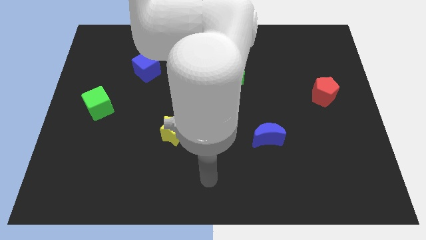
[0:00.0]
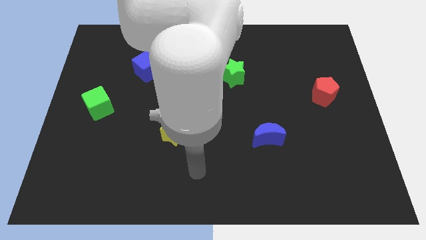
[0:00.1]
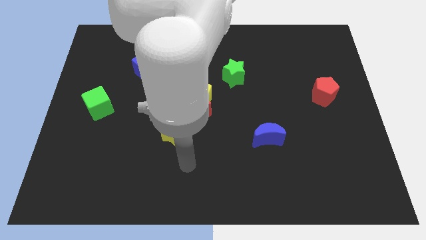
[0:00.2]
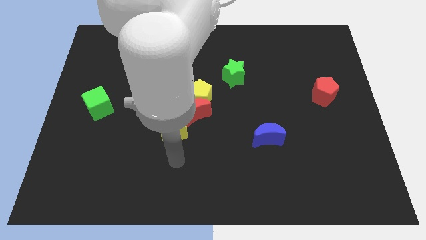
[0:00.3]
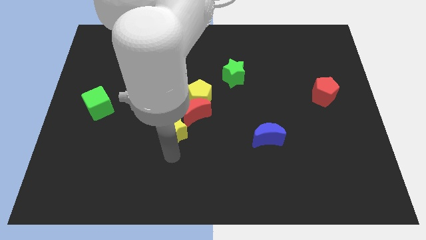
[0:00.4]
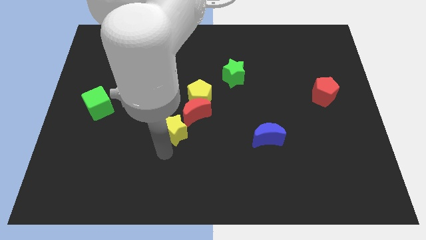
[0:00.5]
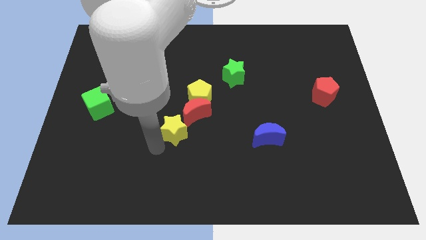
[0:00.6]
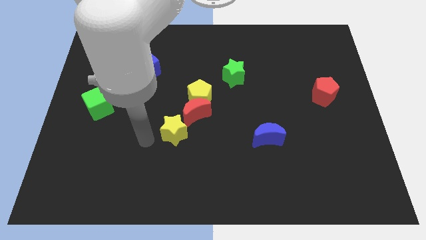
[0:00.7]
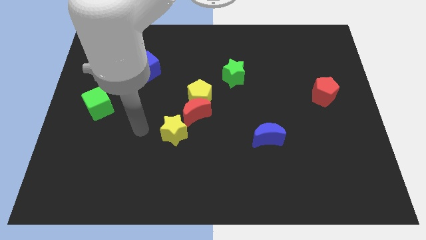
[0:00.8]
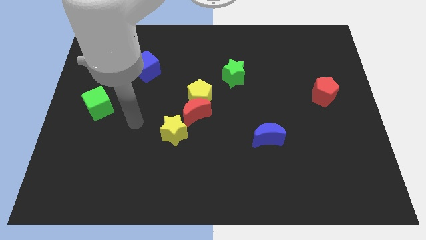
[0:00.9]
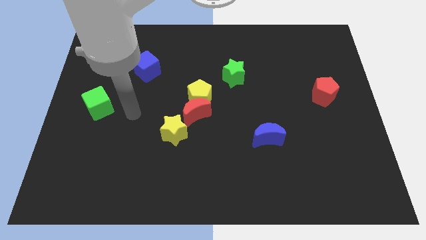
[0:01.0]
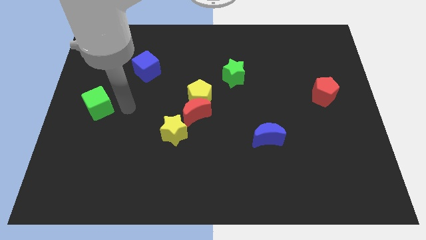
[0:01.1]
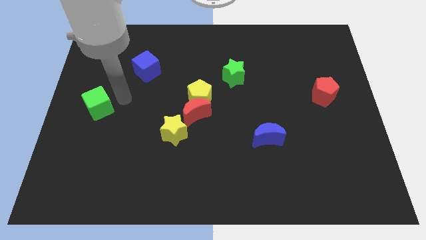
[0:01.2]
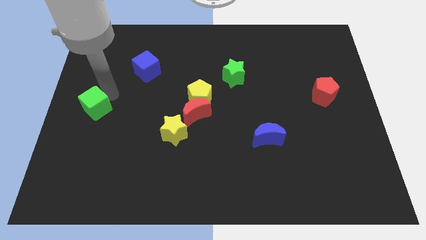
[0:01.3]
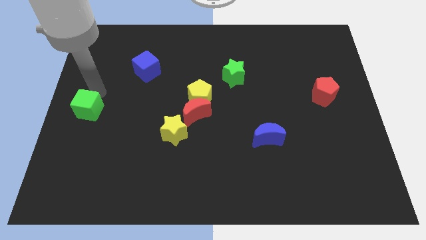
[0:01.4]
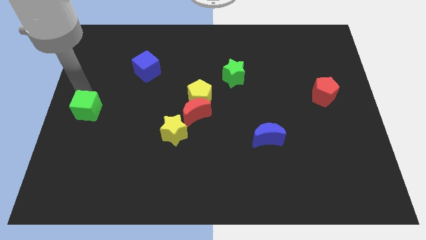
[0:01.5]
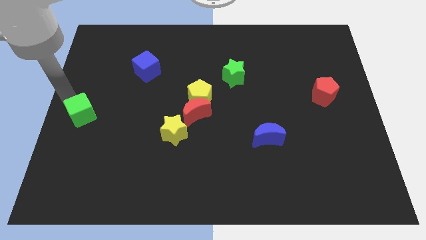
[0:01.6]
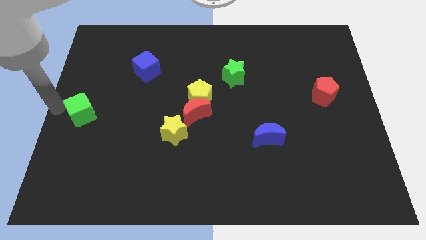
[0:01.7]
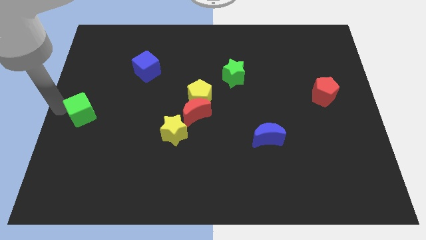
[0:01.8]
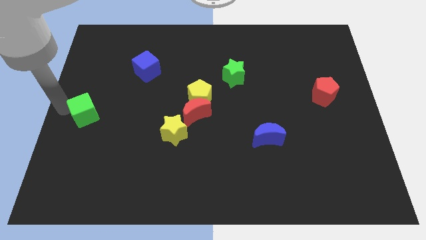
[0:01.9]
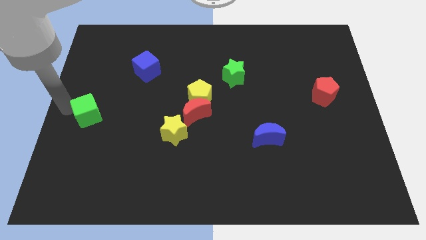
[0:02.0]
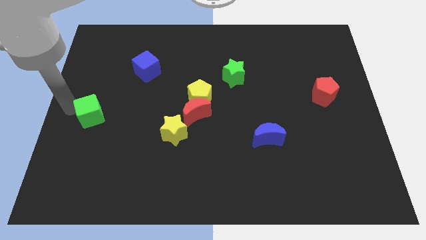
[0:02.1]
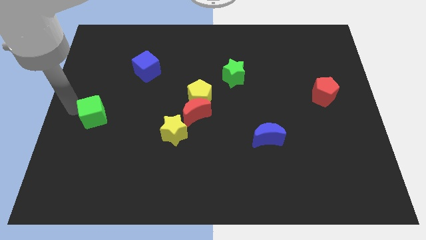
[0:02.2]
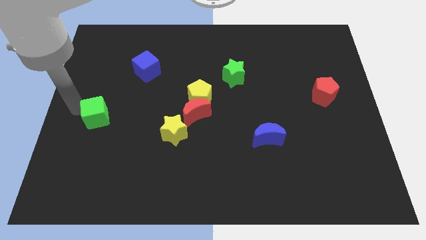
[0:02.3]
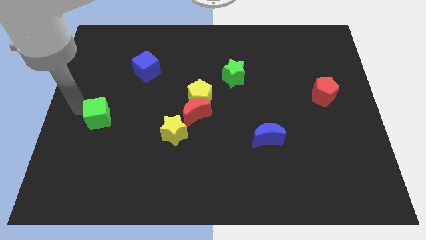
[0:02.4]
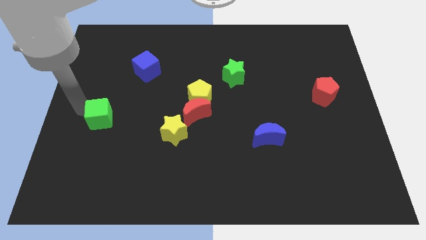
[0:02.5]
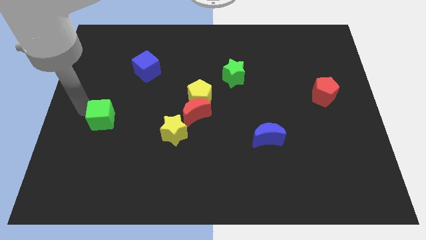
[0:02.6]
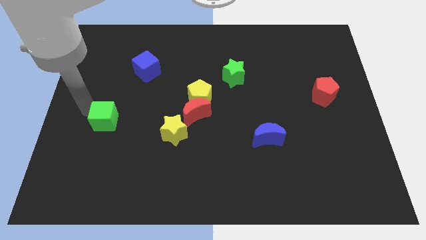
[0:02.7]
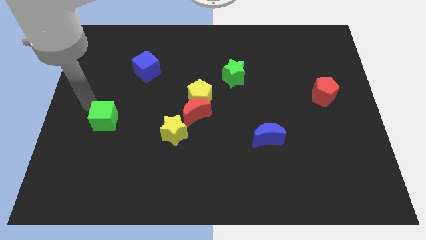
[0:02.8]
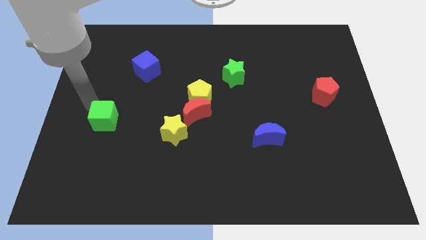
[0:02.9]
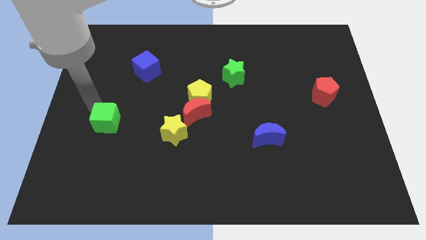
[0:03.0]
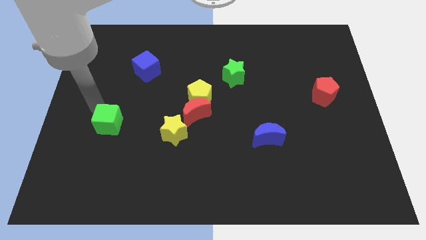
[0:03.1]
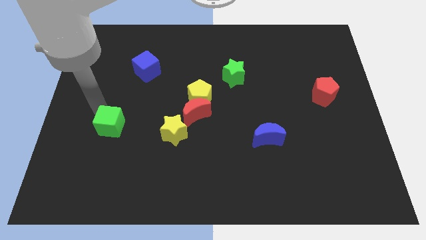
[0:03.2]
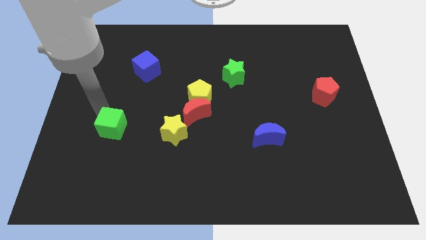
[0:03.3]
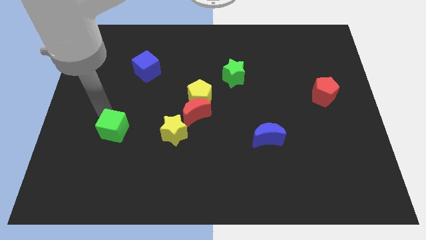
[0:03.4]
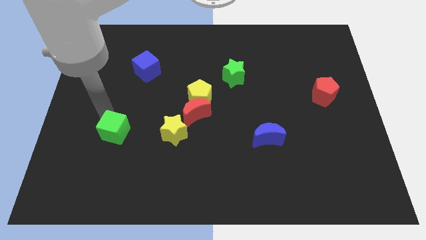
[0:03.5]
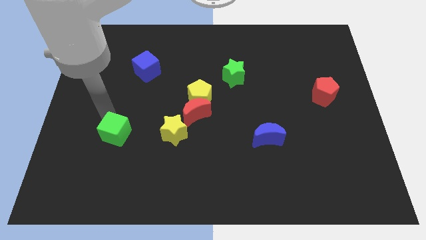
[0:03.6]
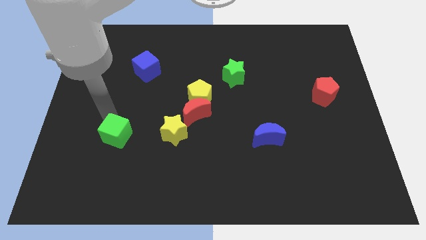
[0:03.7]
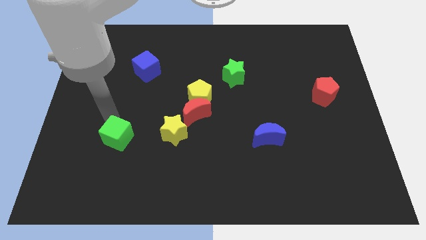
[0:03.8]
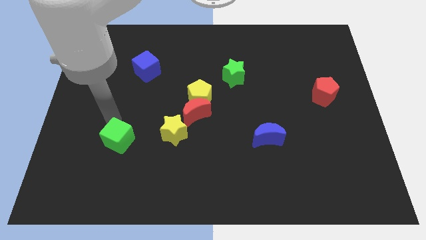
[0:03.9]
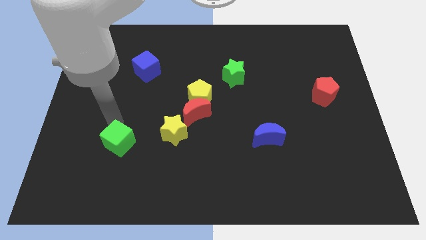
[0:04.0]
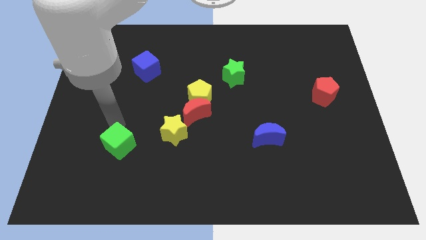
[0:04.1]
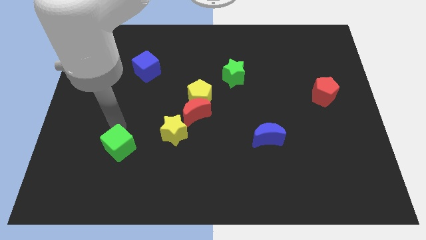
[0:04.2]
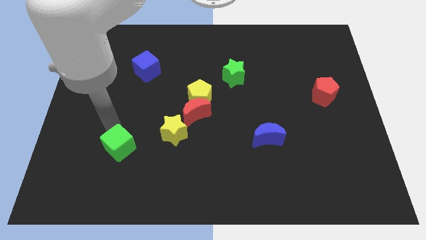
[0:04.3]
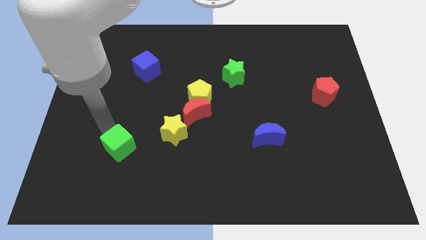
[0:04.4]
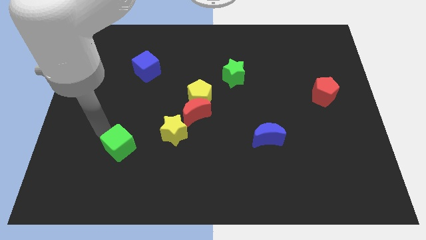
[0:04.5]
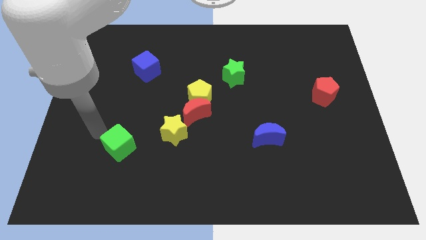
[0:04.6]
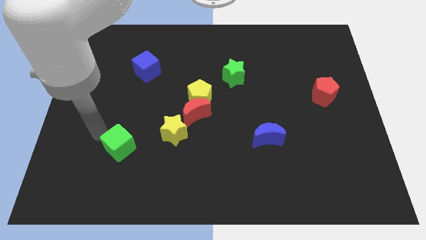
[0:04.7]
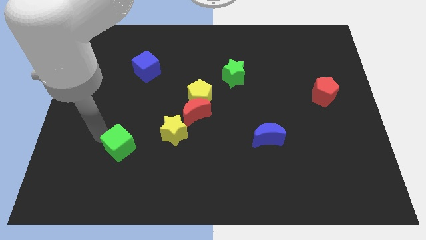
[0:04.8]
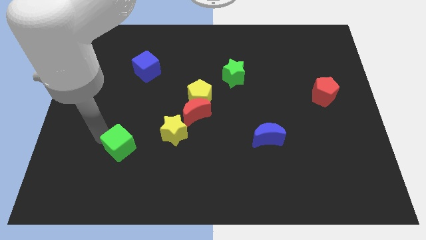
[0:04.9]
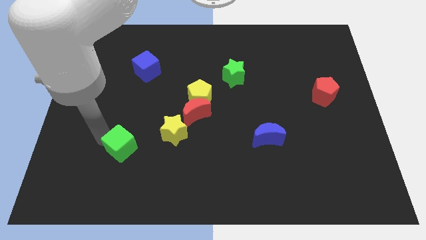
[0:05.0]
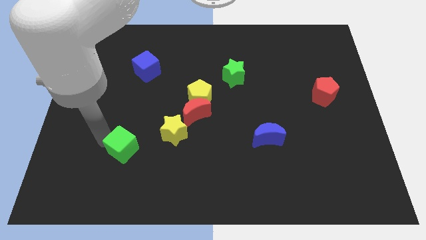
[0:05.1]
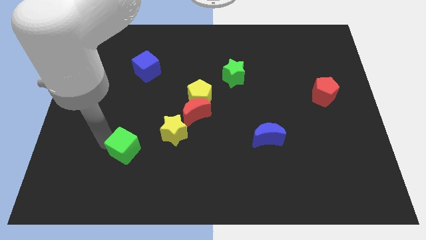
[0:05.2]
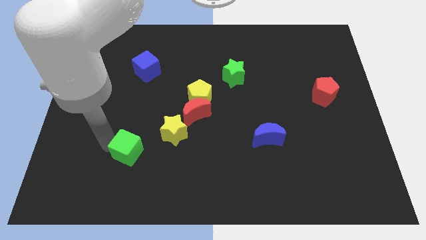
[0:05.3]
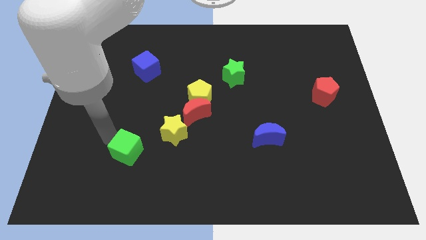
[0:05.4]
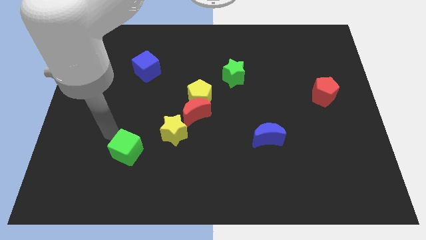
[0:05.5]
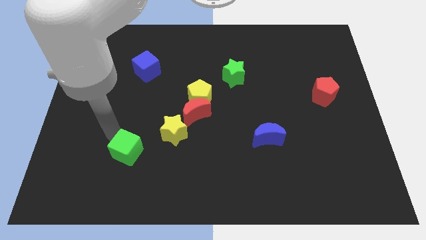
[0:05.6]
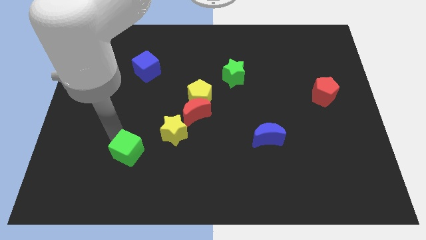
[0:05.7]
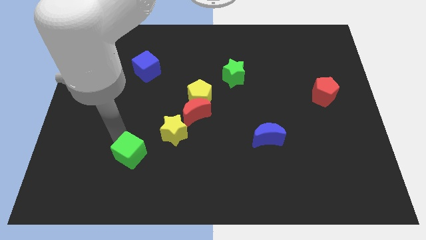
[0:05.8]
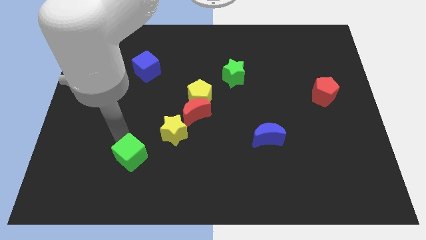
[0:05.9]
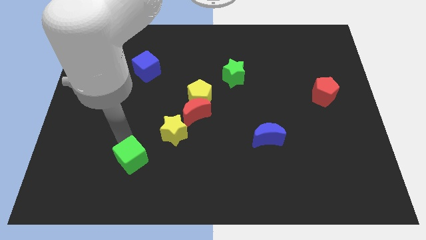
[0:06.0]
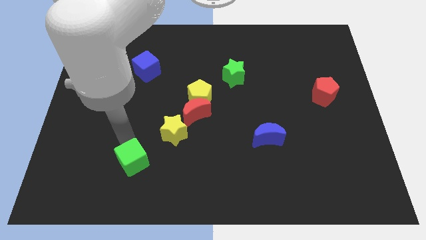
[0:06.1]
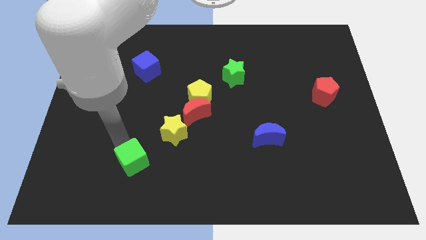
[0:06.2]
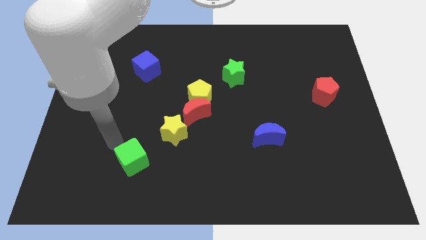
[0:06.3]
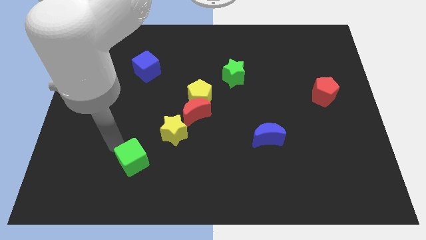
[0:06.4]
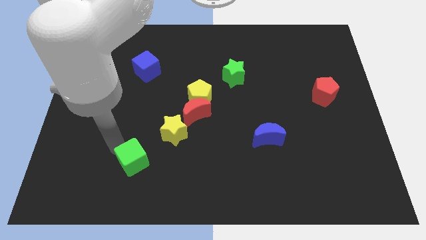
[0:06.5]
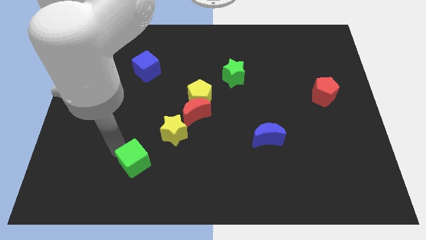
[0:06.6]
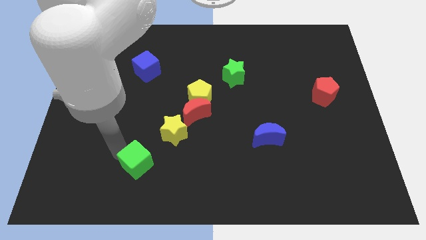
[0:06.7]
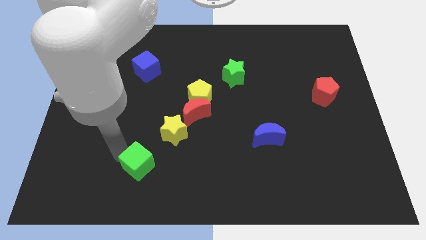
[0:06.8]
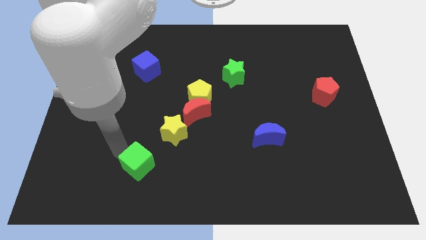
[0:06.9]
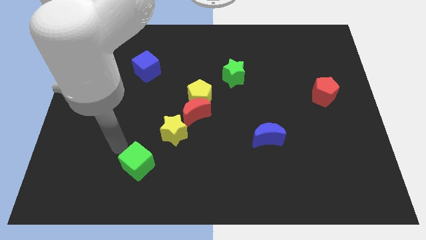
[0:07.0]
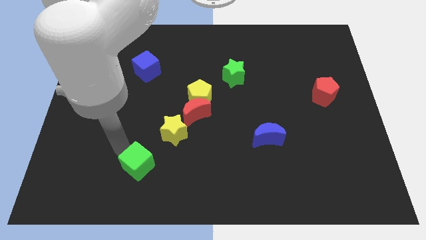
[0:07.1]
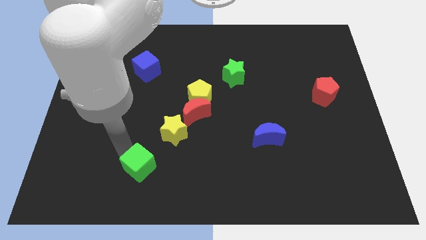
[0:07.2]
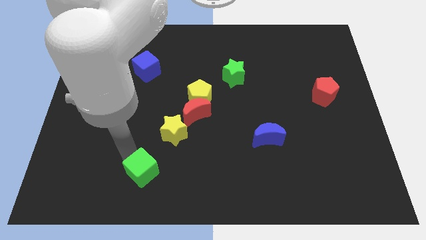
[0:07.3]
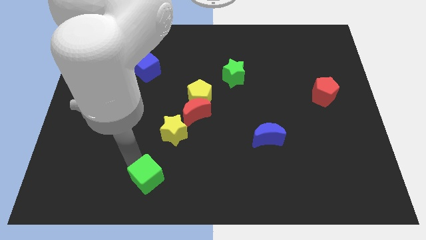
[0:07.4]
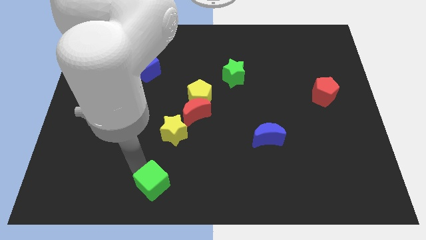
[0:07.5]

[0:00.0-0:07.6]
put the green cube to the bottom side
